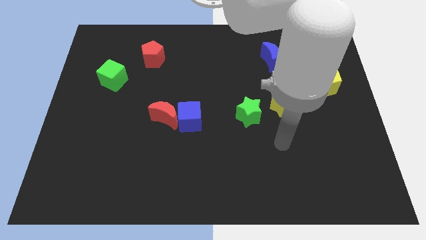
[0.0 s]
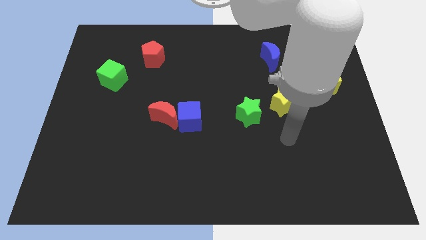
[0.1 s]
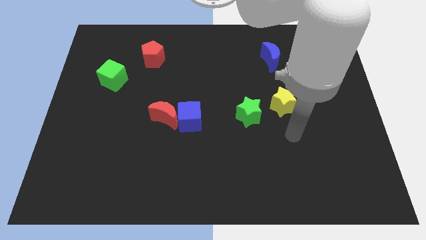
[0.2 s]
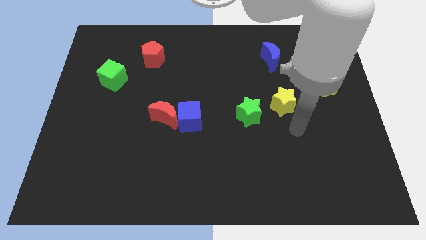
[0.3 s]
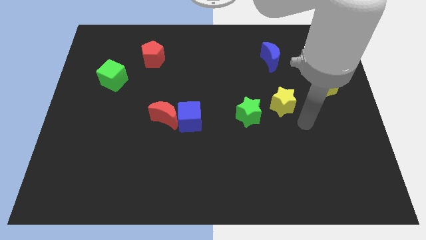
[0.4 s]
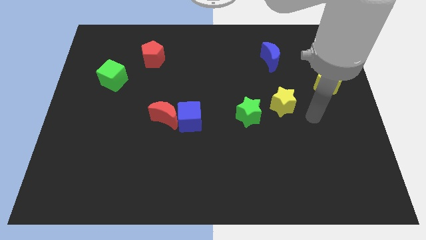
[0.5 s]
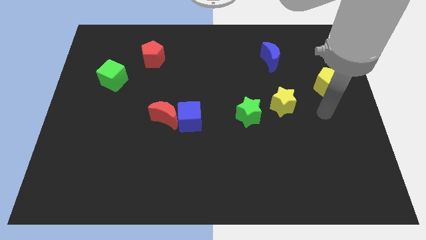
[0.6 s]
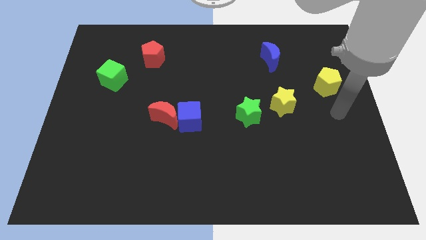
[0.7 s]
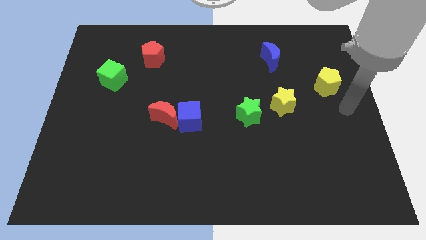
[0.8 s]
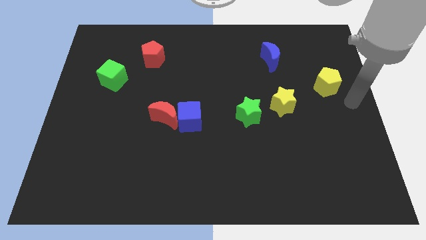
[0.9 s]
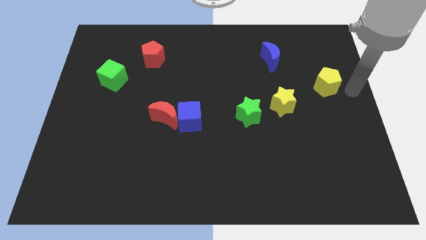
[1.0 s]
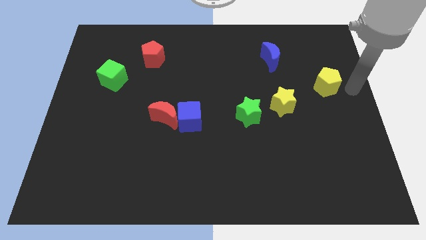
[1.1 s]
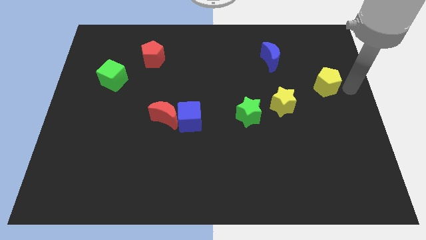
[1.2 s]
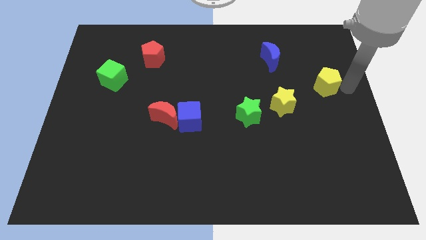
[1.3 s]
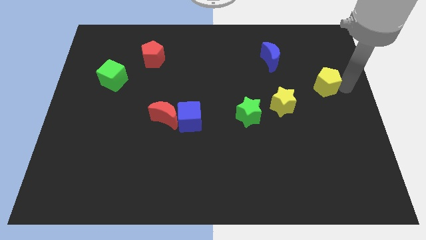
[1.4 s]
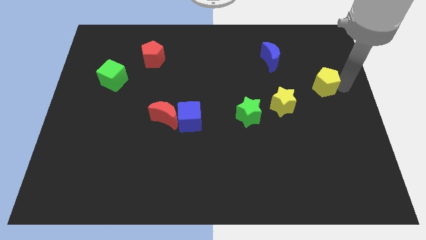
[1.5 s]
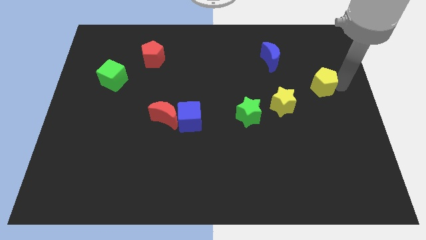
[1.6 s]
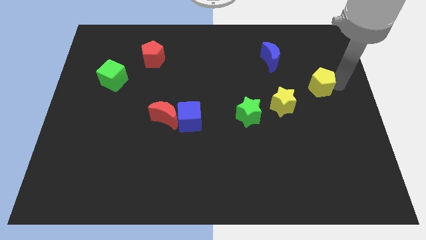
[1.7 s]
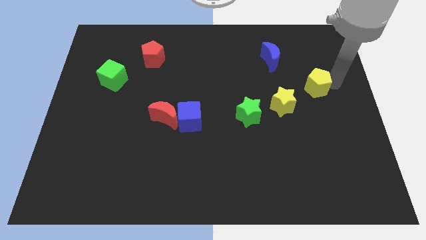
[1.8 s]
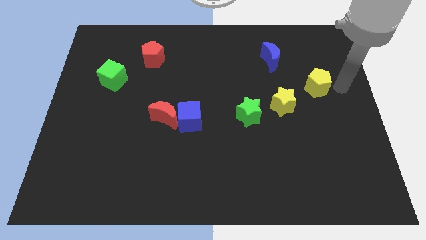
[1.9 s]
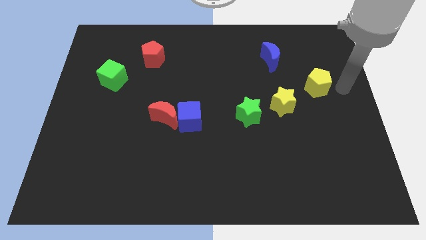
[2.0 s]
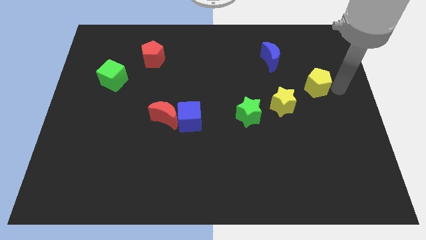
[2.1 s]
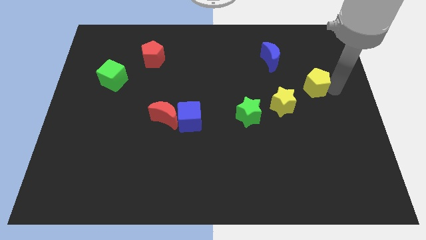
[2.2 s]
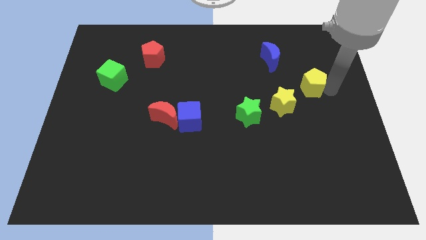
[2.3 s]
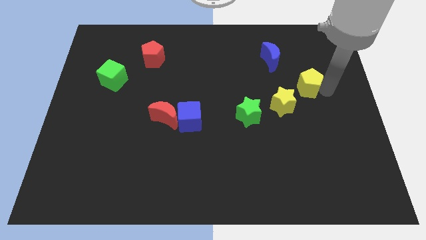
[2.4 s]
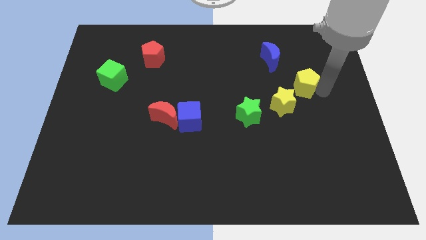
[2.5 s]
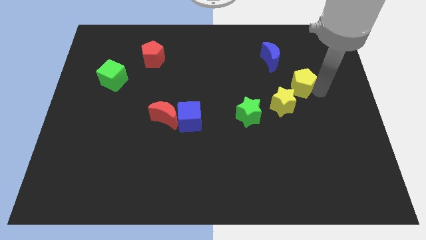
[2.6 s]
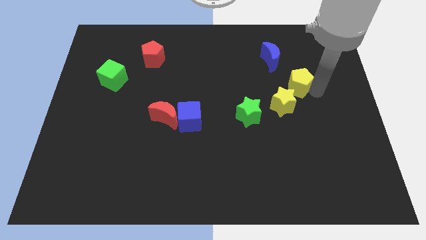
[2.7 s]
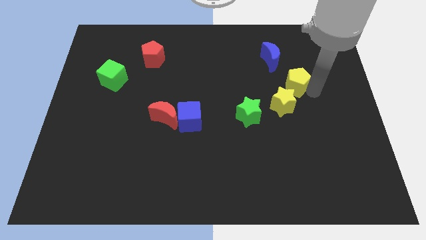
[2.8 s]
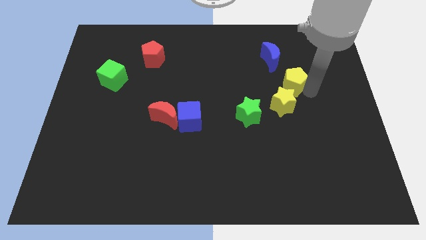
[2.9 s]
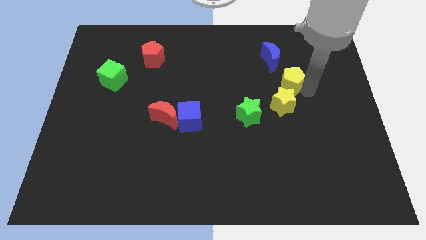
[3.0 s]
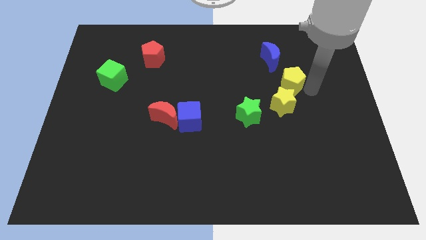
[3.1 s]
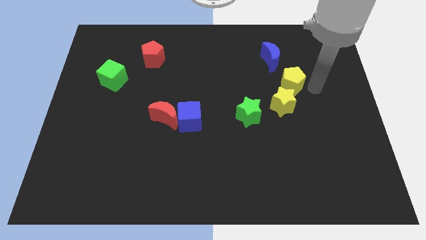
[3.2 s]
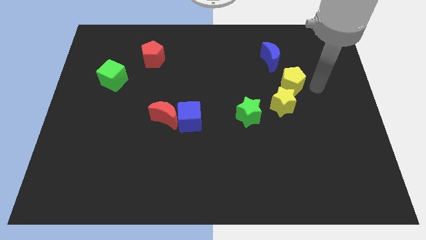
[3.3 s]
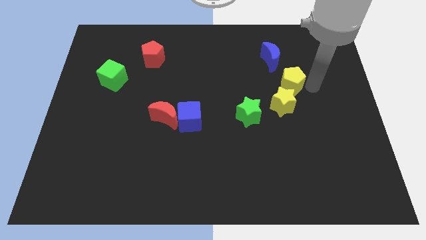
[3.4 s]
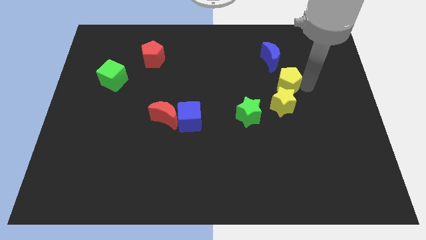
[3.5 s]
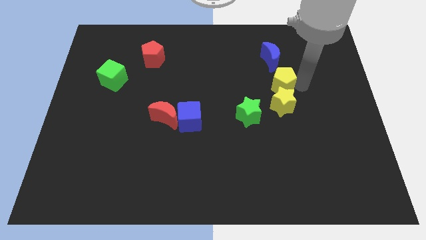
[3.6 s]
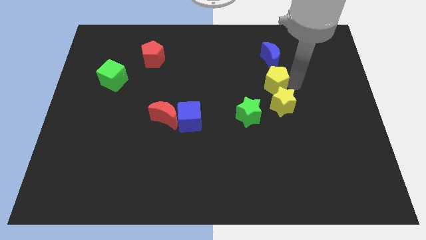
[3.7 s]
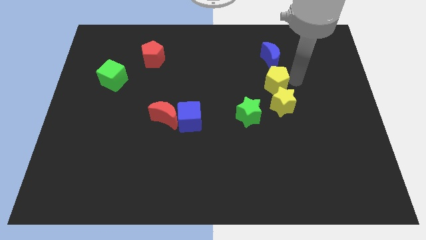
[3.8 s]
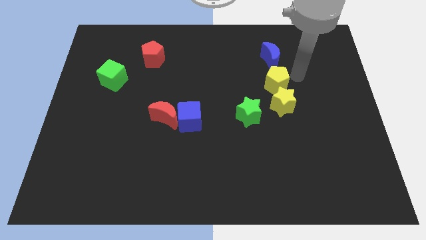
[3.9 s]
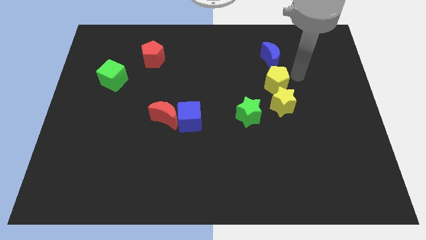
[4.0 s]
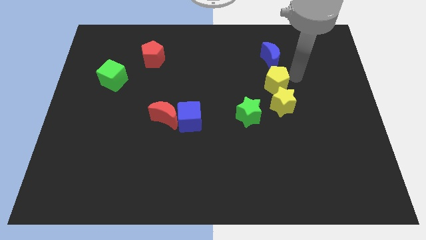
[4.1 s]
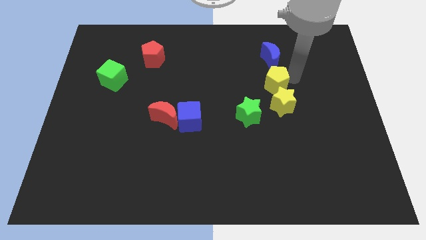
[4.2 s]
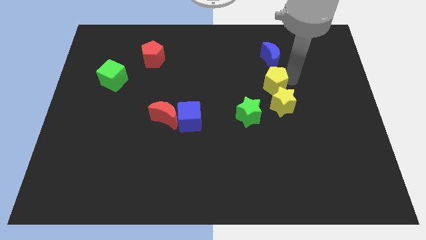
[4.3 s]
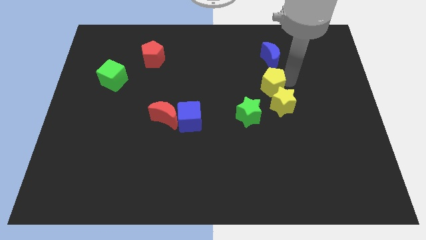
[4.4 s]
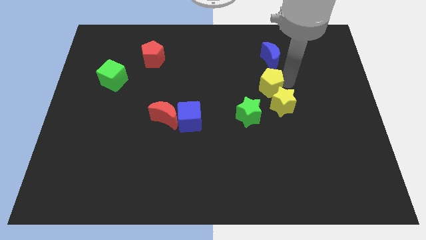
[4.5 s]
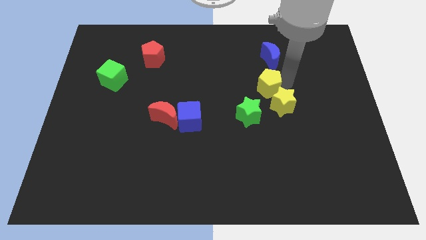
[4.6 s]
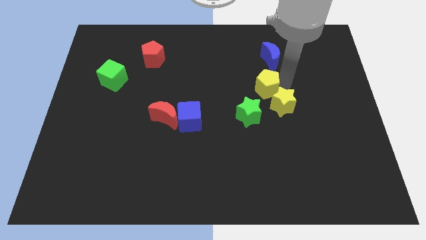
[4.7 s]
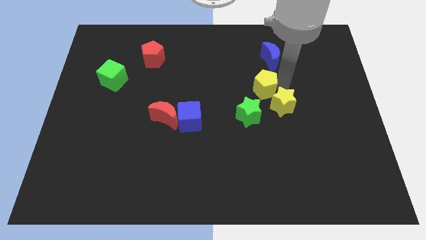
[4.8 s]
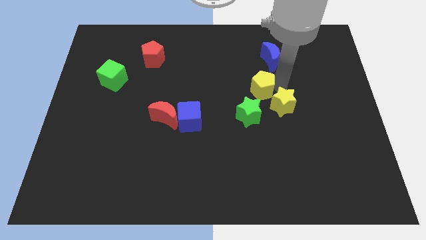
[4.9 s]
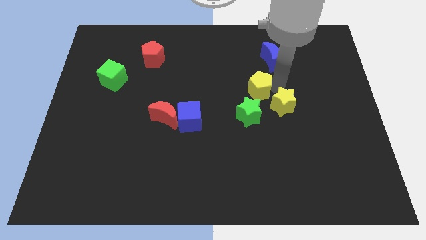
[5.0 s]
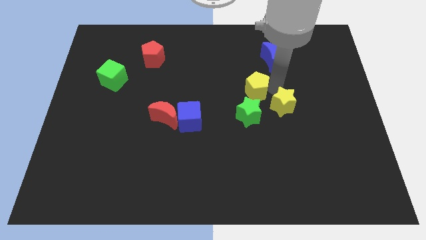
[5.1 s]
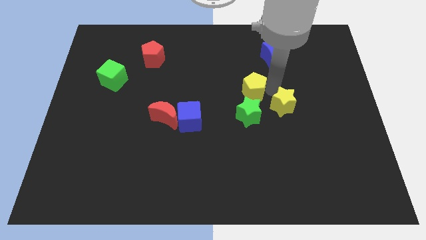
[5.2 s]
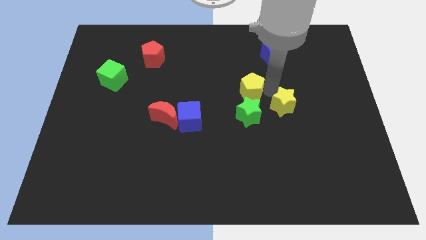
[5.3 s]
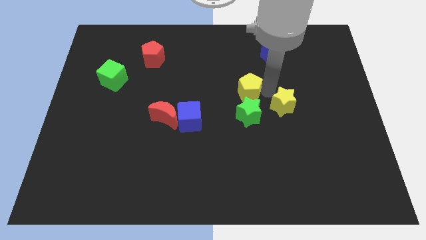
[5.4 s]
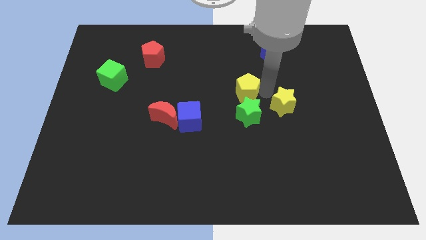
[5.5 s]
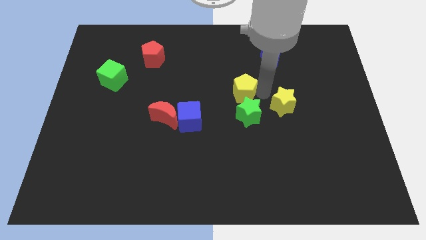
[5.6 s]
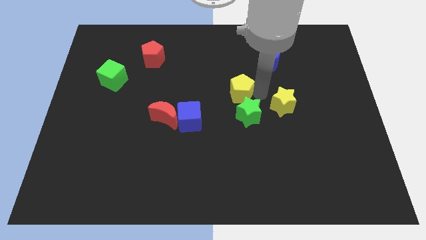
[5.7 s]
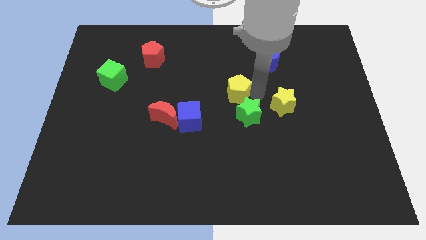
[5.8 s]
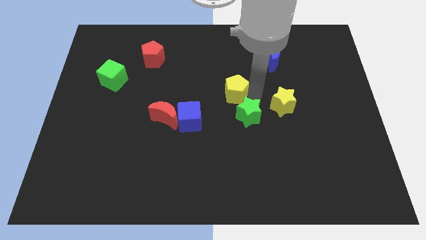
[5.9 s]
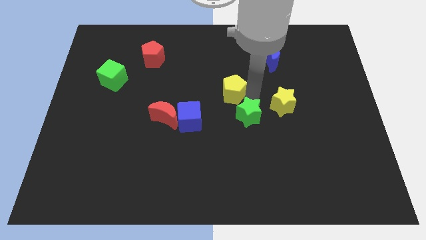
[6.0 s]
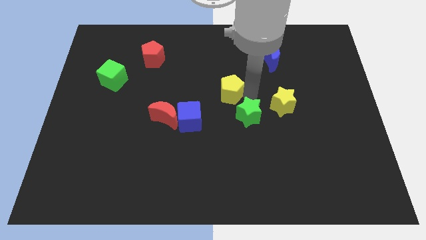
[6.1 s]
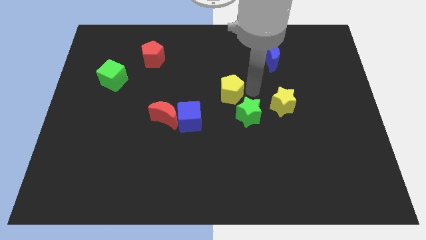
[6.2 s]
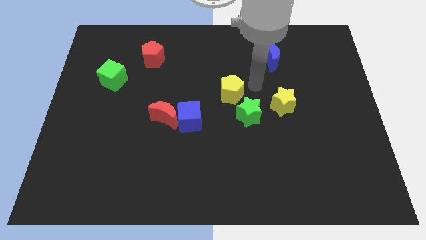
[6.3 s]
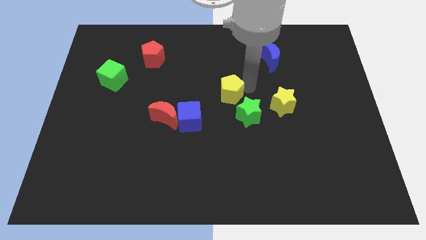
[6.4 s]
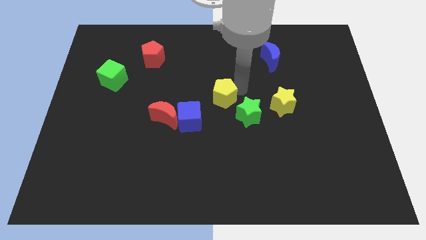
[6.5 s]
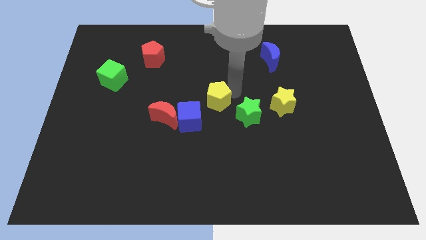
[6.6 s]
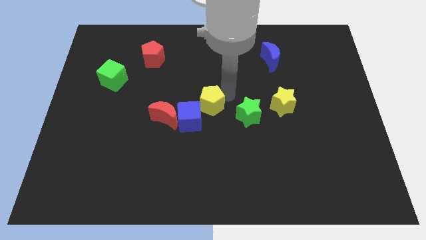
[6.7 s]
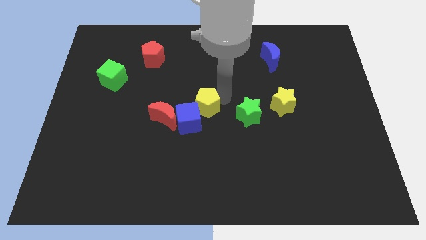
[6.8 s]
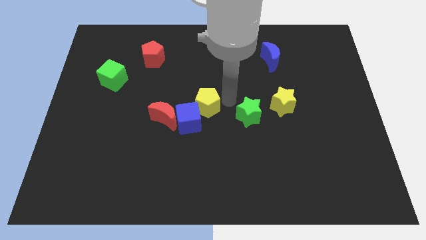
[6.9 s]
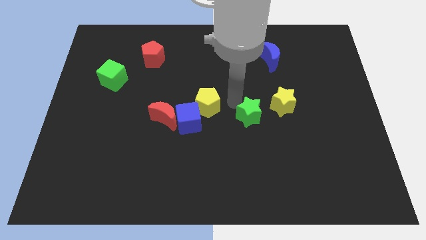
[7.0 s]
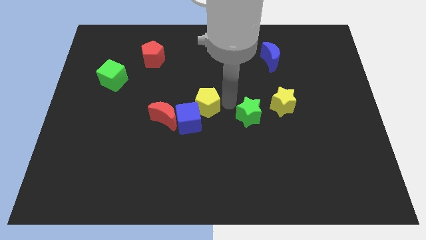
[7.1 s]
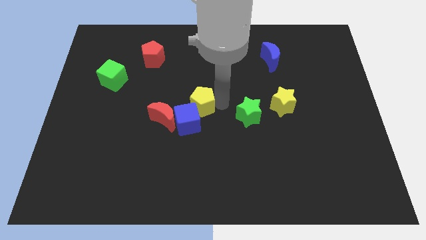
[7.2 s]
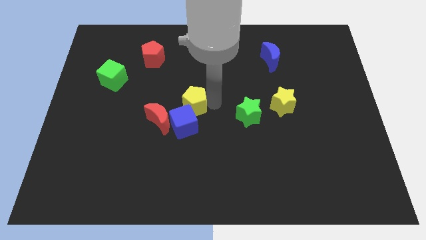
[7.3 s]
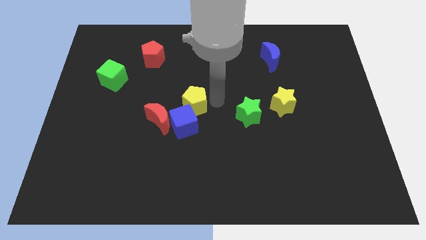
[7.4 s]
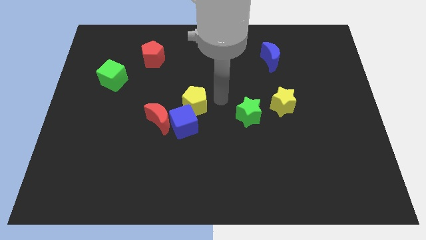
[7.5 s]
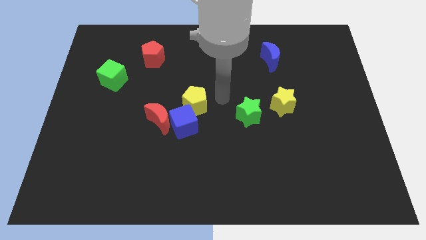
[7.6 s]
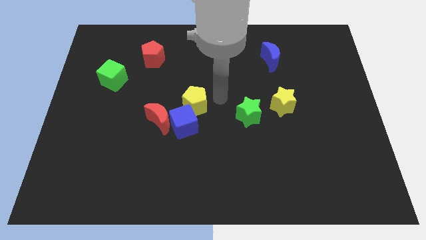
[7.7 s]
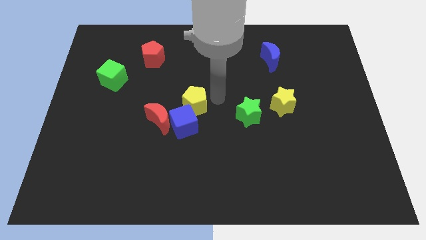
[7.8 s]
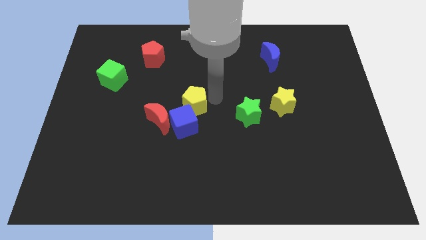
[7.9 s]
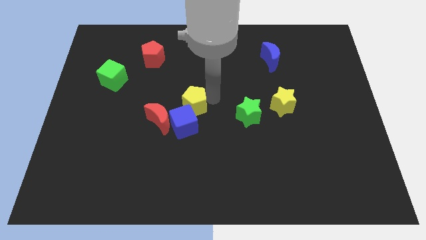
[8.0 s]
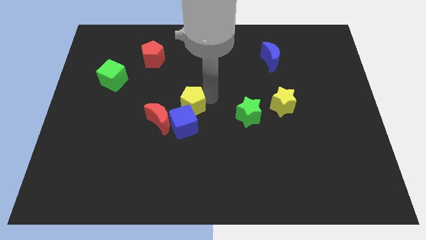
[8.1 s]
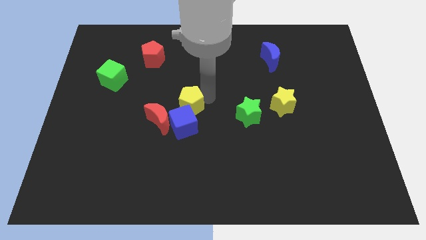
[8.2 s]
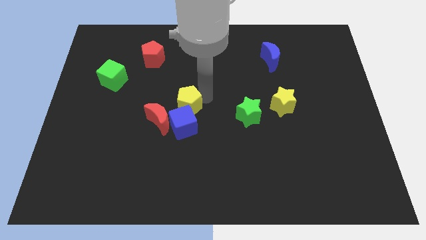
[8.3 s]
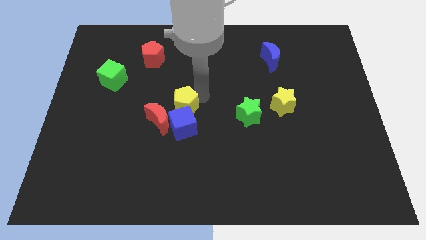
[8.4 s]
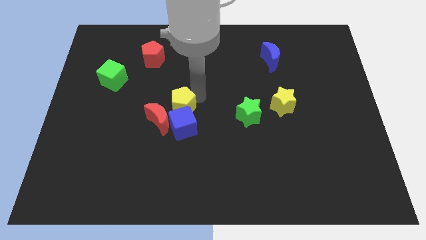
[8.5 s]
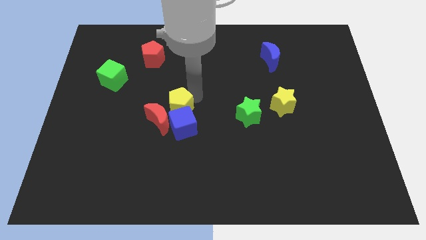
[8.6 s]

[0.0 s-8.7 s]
move the yellow pentagon close to the red moon
